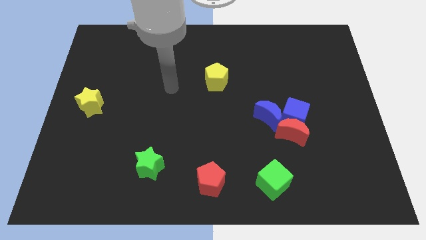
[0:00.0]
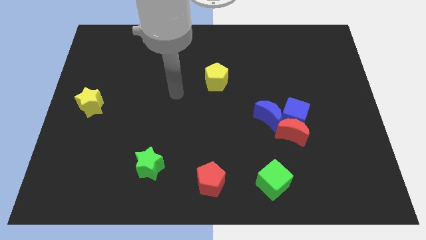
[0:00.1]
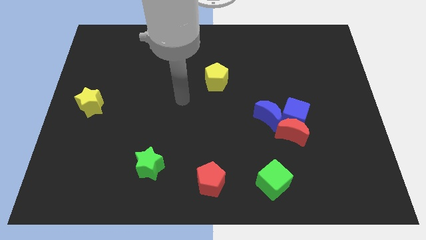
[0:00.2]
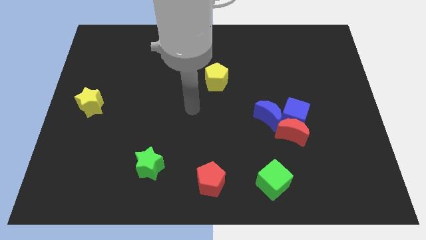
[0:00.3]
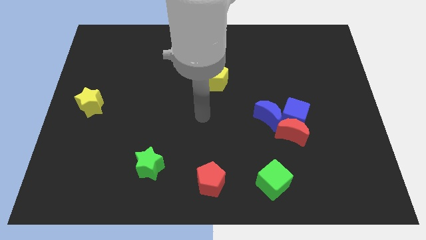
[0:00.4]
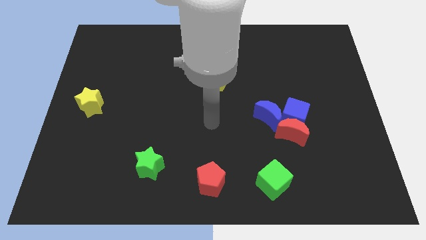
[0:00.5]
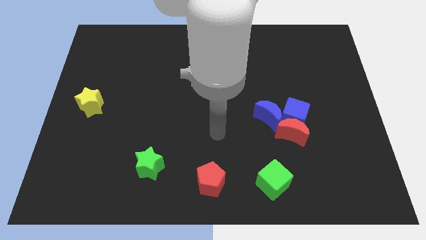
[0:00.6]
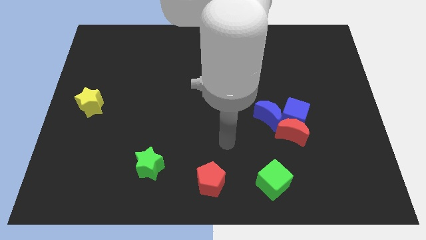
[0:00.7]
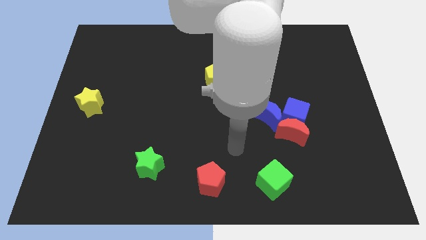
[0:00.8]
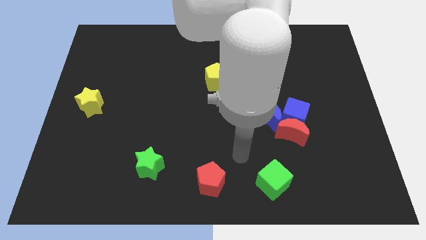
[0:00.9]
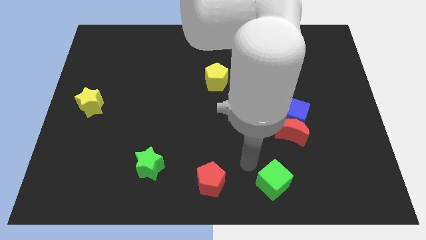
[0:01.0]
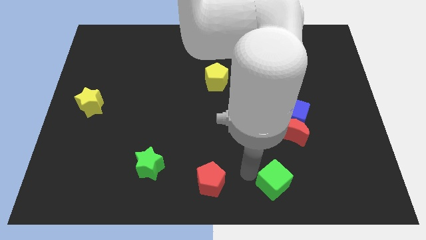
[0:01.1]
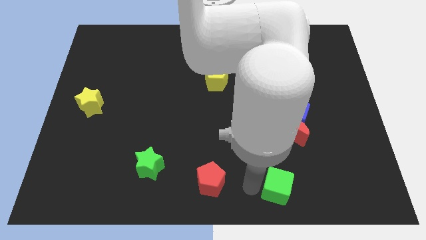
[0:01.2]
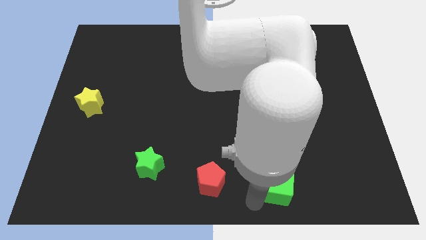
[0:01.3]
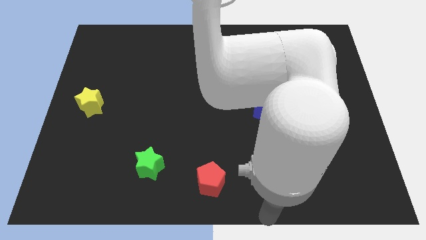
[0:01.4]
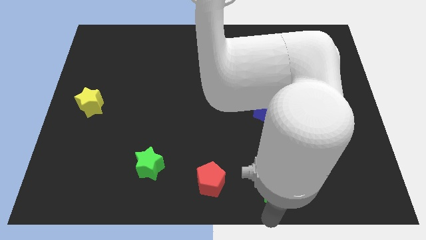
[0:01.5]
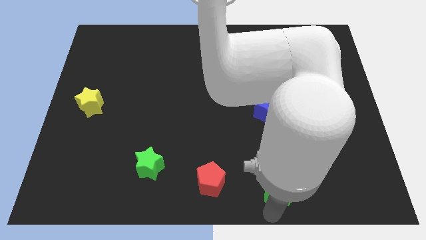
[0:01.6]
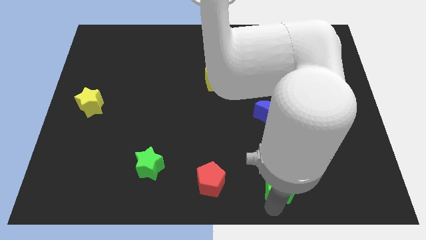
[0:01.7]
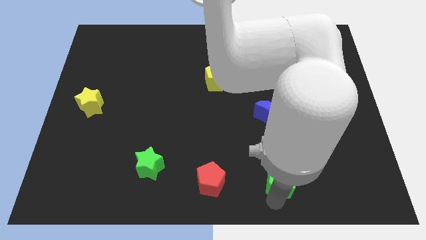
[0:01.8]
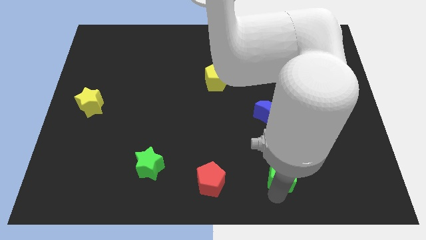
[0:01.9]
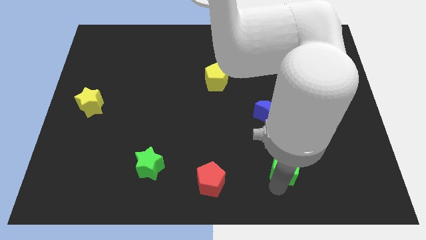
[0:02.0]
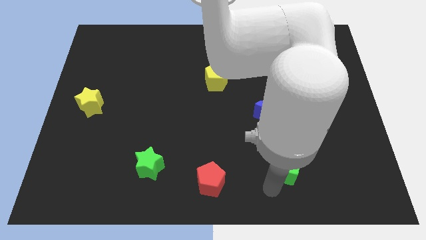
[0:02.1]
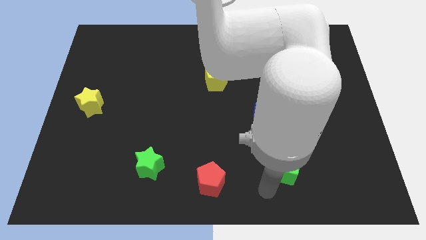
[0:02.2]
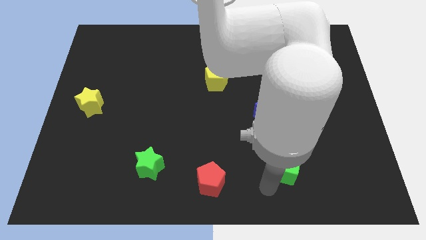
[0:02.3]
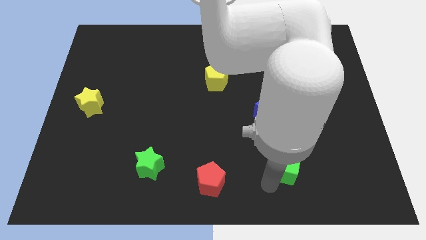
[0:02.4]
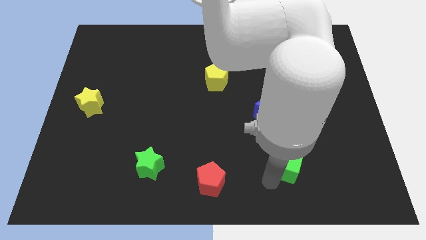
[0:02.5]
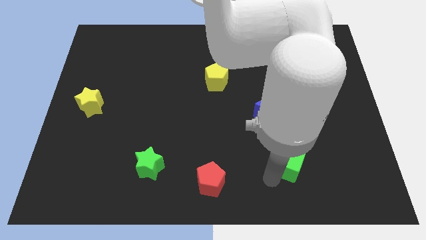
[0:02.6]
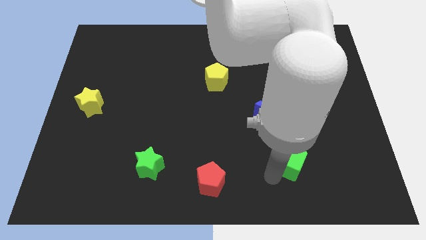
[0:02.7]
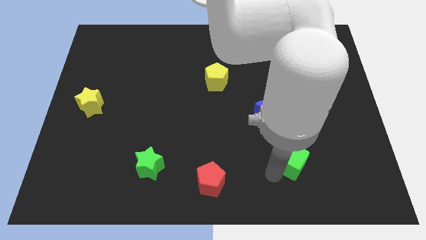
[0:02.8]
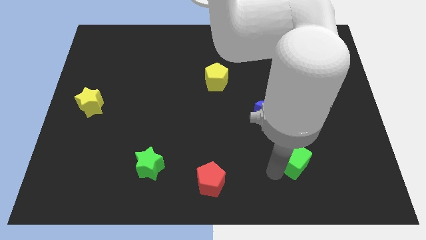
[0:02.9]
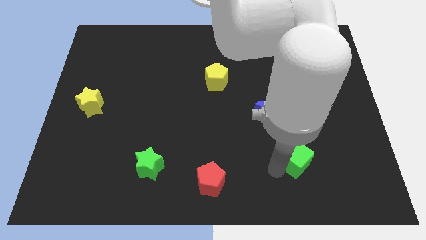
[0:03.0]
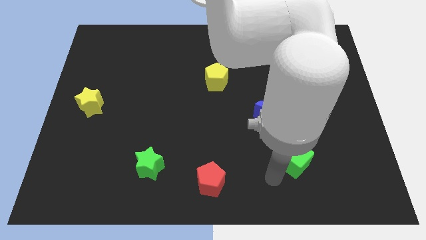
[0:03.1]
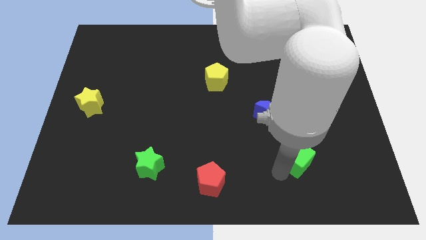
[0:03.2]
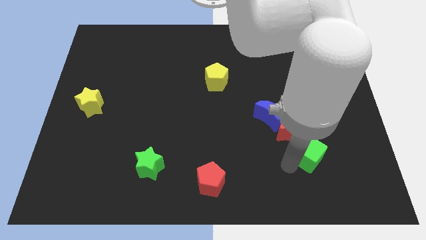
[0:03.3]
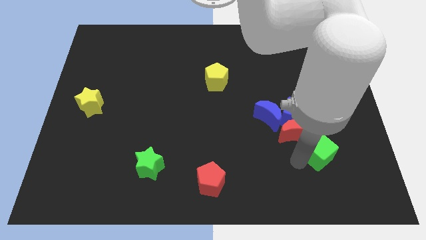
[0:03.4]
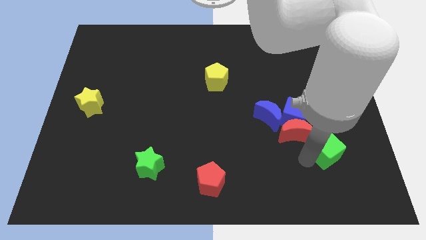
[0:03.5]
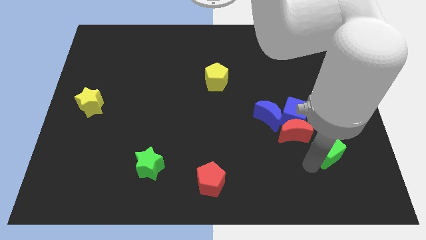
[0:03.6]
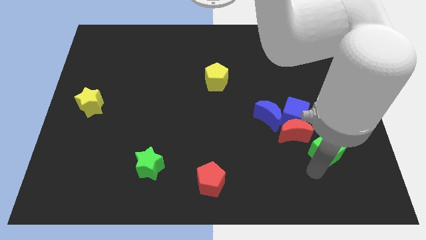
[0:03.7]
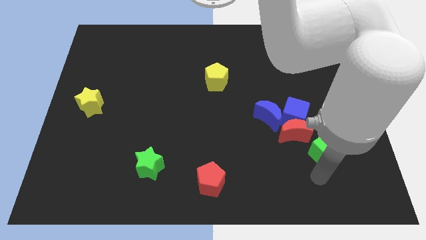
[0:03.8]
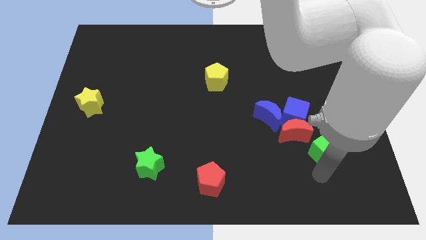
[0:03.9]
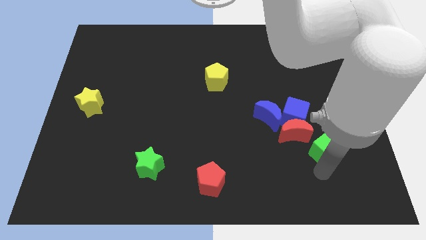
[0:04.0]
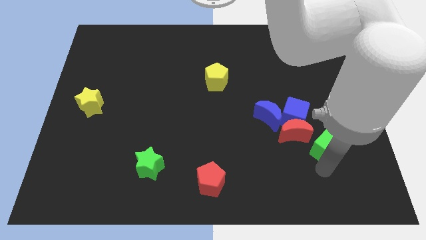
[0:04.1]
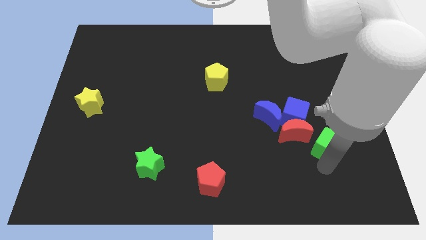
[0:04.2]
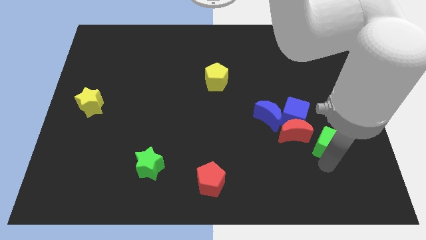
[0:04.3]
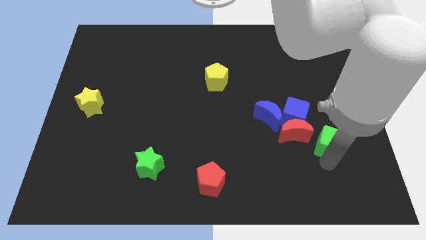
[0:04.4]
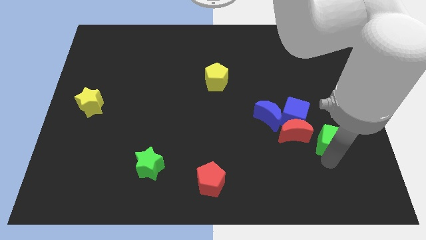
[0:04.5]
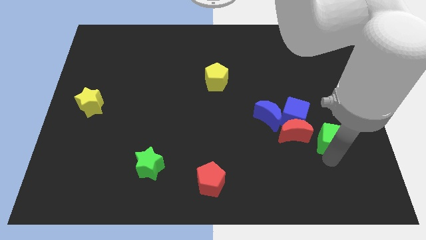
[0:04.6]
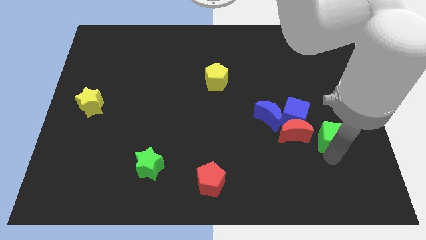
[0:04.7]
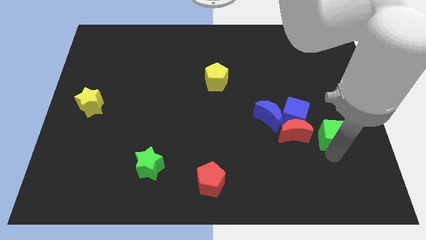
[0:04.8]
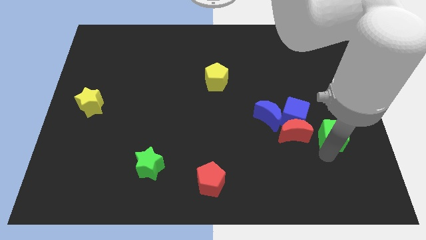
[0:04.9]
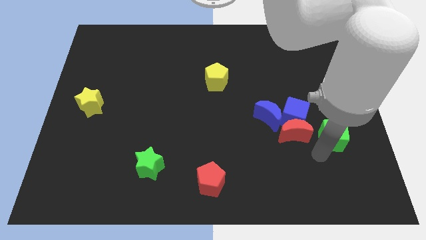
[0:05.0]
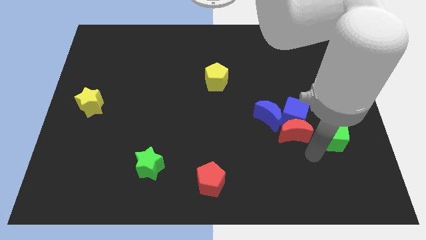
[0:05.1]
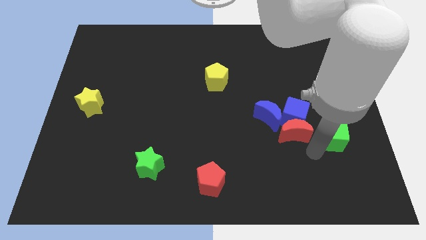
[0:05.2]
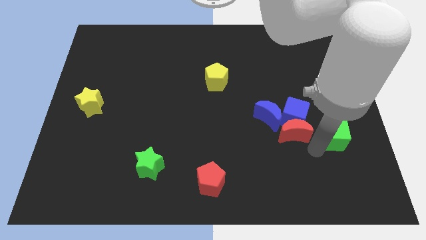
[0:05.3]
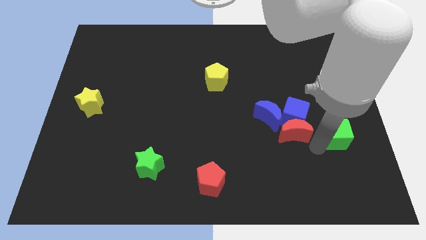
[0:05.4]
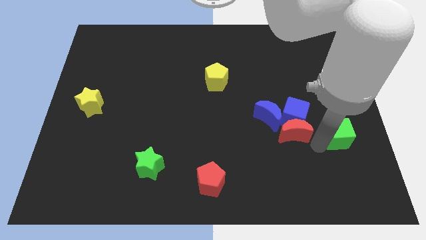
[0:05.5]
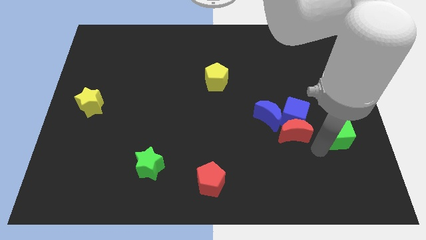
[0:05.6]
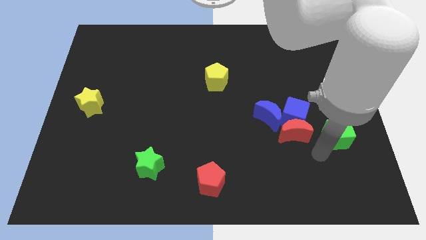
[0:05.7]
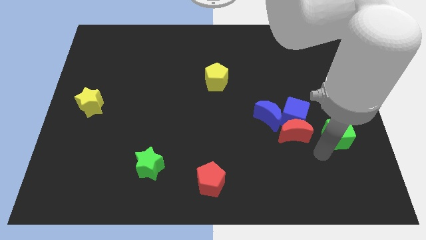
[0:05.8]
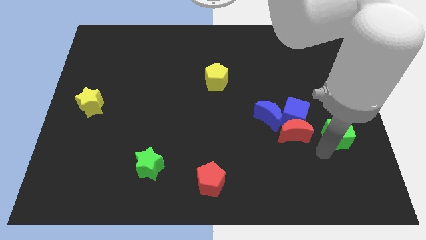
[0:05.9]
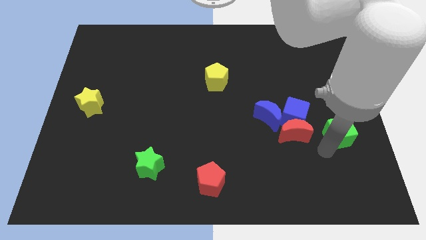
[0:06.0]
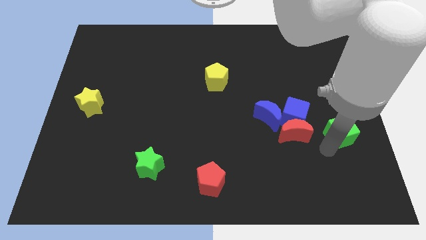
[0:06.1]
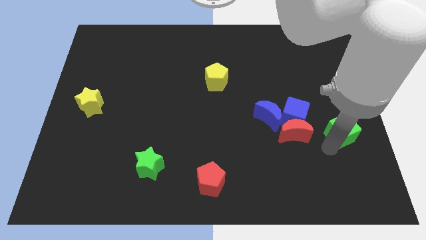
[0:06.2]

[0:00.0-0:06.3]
move the green cube to the right side of the board
